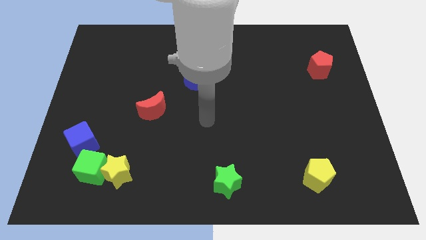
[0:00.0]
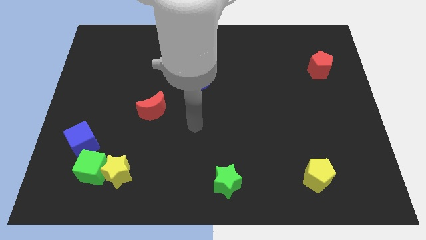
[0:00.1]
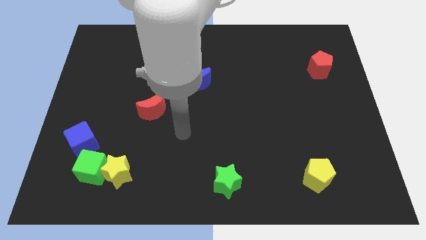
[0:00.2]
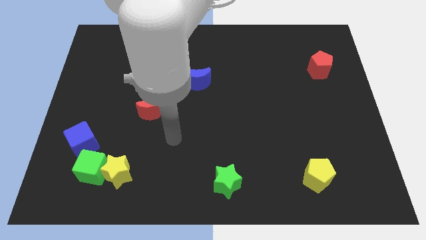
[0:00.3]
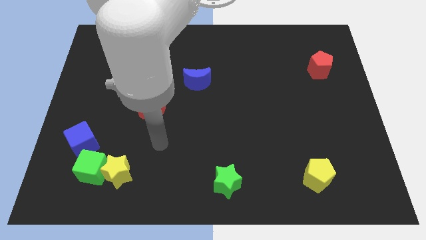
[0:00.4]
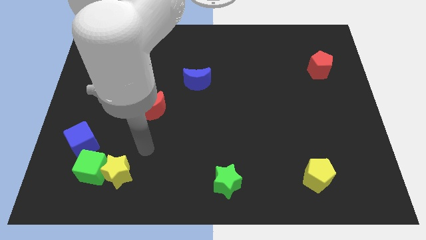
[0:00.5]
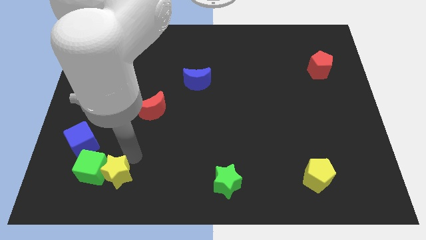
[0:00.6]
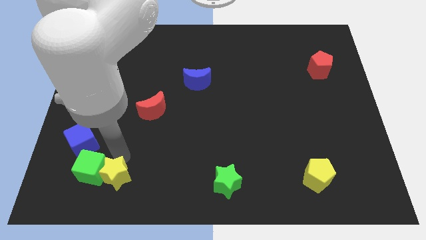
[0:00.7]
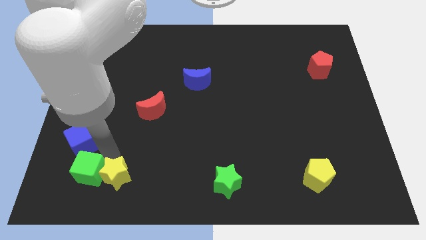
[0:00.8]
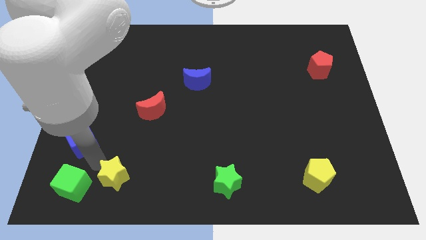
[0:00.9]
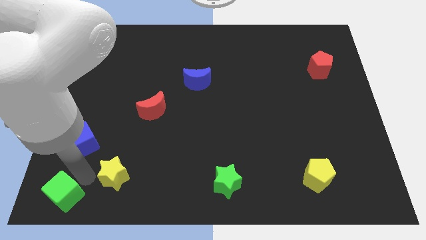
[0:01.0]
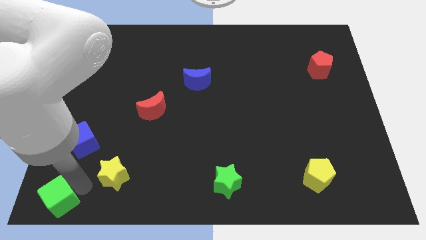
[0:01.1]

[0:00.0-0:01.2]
pull the yellow star apart from the green cube

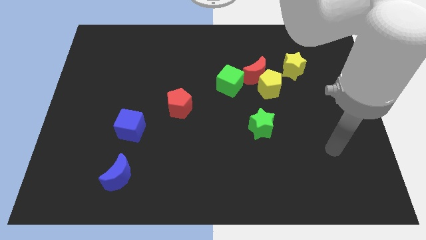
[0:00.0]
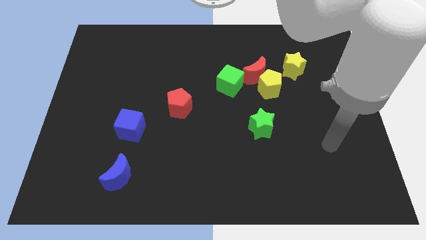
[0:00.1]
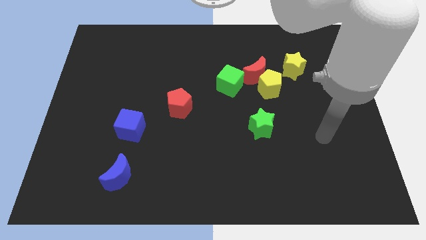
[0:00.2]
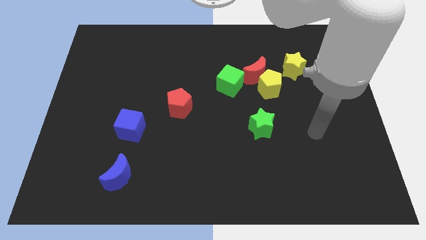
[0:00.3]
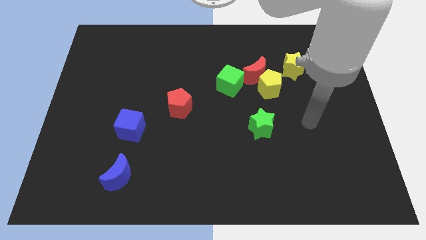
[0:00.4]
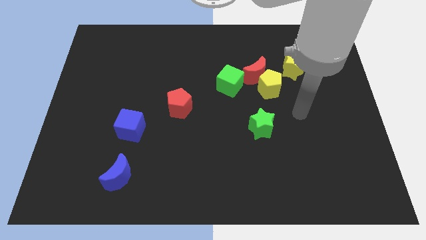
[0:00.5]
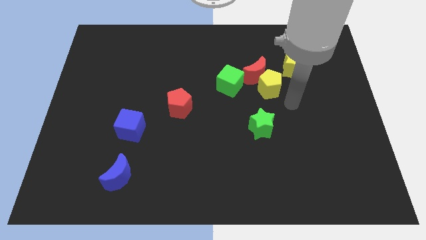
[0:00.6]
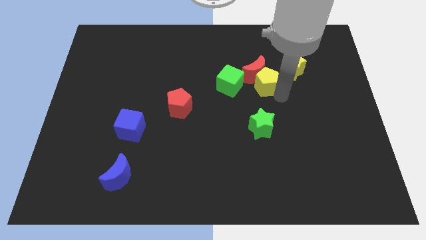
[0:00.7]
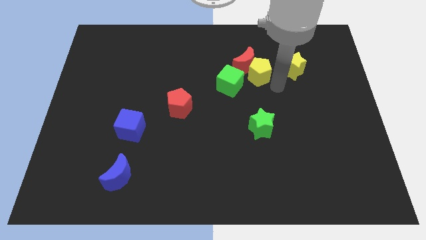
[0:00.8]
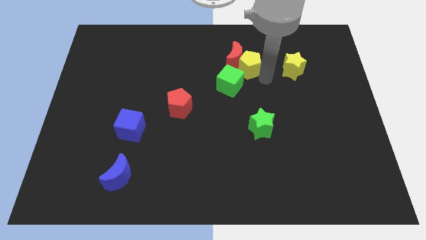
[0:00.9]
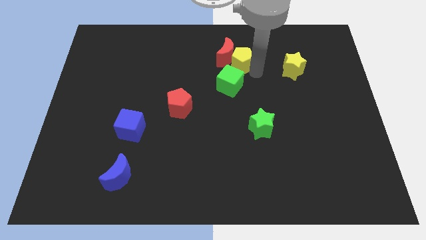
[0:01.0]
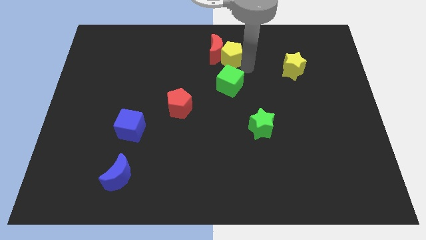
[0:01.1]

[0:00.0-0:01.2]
separate the red moon from the yellow pentagon, green cube, and yellow star

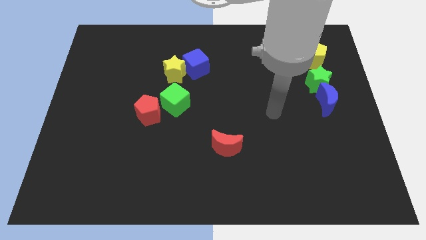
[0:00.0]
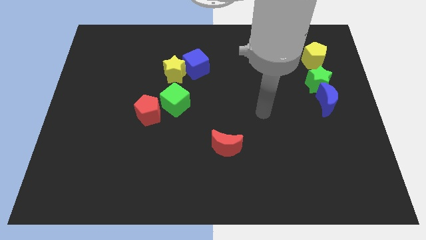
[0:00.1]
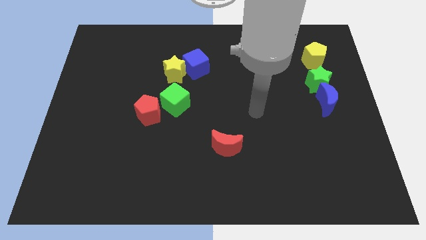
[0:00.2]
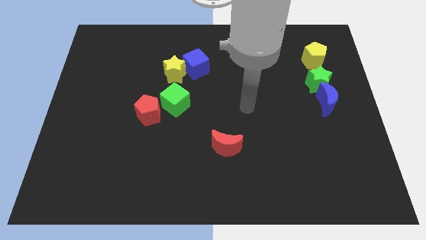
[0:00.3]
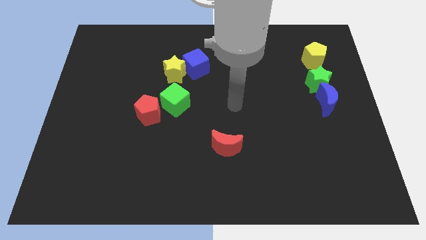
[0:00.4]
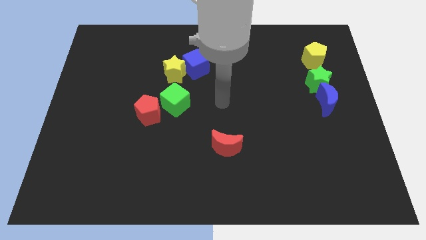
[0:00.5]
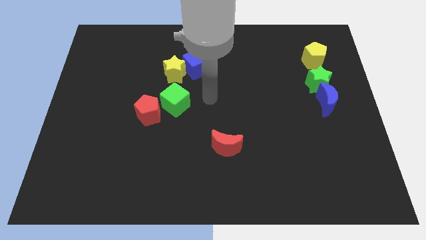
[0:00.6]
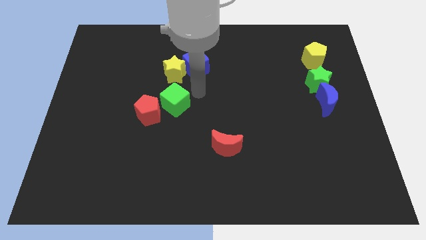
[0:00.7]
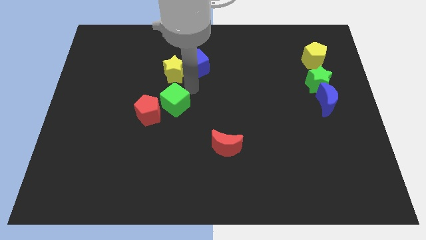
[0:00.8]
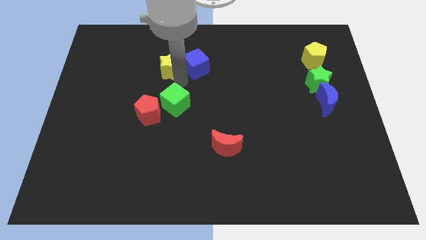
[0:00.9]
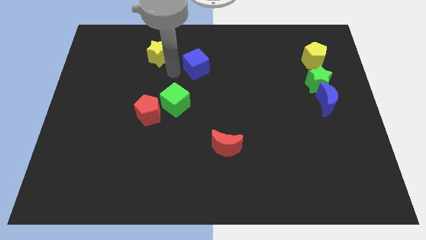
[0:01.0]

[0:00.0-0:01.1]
move the blue cube away from the yellow star

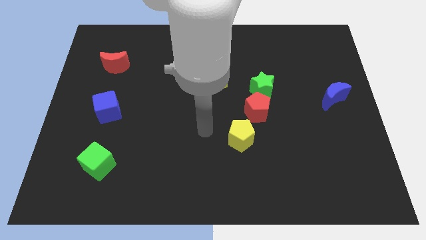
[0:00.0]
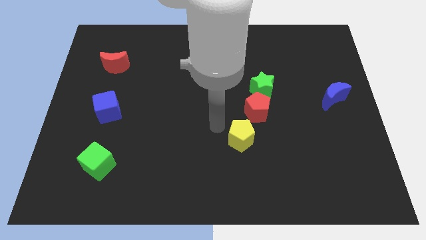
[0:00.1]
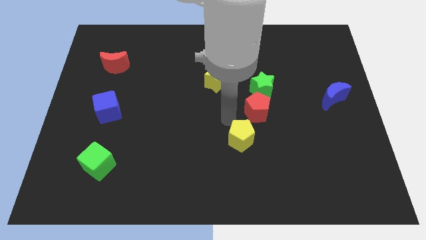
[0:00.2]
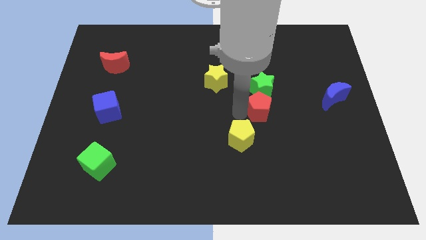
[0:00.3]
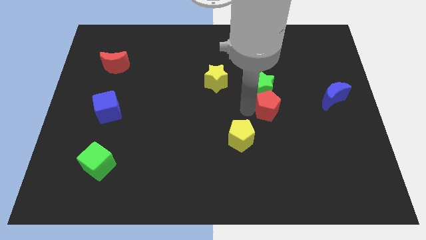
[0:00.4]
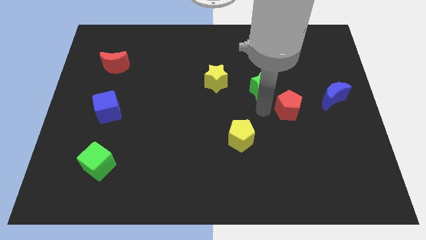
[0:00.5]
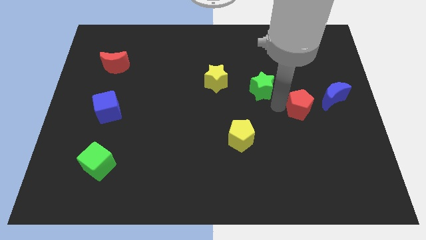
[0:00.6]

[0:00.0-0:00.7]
pull the green star apart from the red pentagon

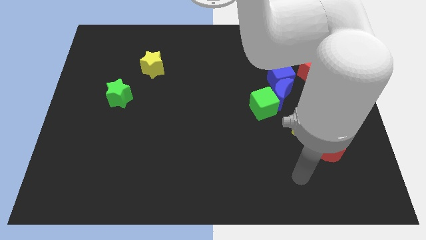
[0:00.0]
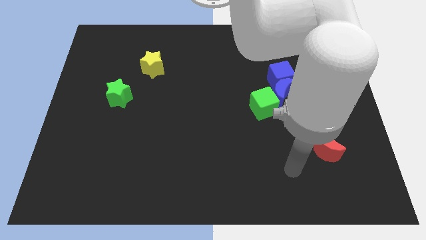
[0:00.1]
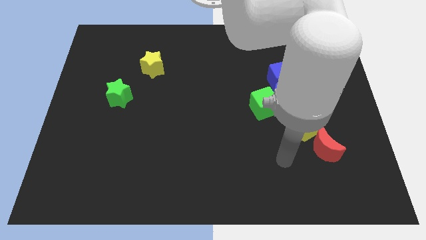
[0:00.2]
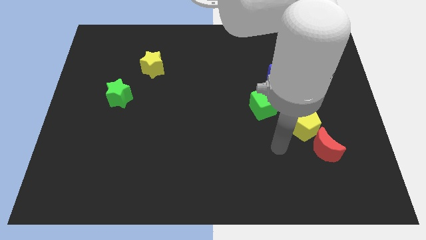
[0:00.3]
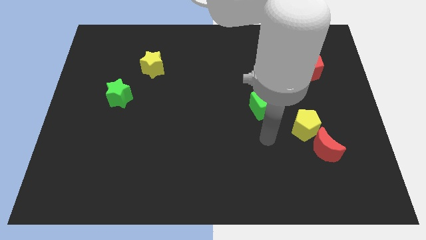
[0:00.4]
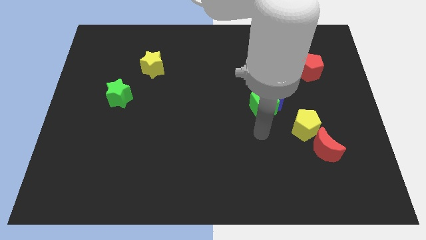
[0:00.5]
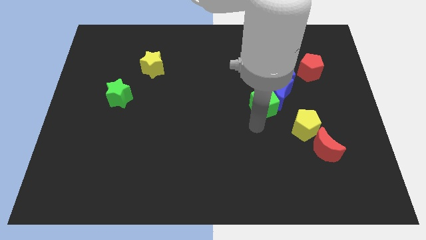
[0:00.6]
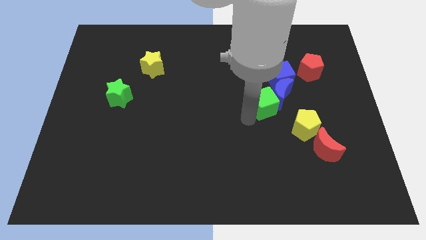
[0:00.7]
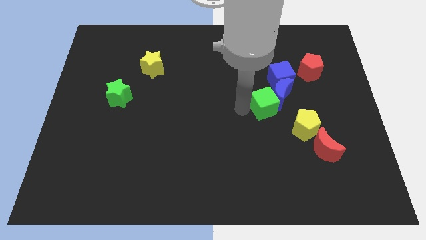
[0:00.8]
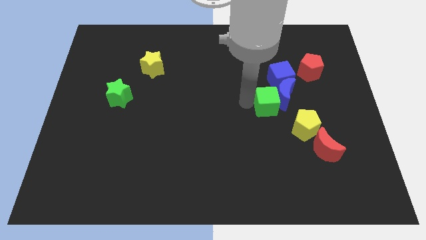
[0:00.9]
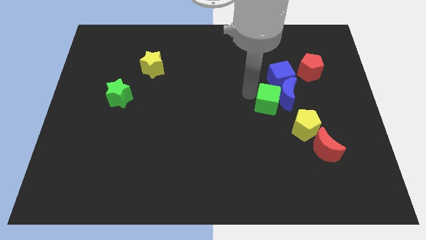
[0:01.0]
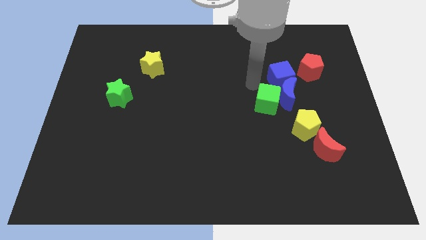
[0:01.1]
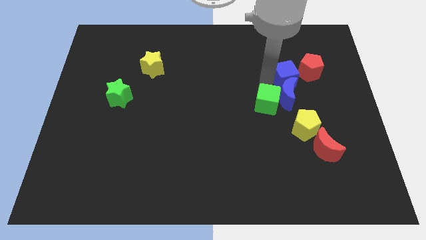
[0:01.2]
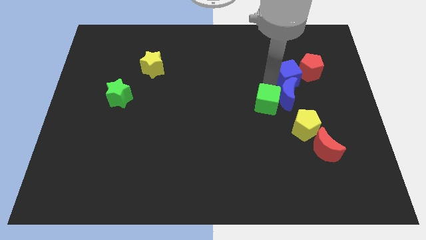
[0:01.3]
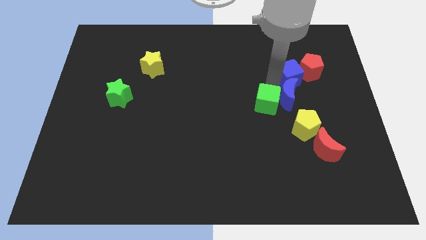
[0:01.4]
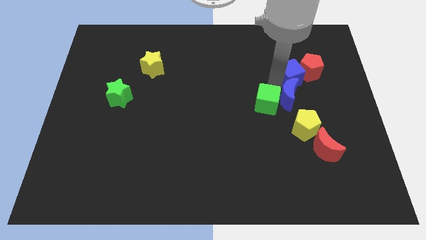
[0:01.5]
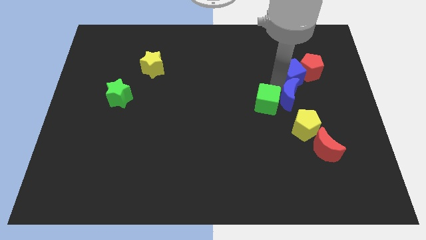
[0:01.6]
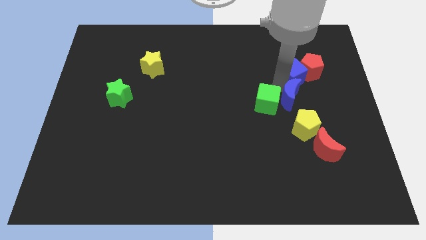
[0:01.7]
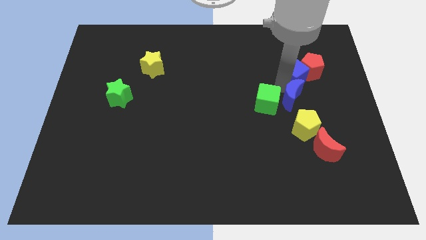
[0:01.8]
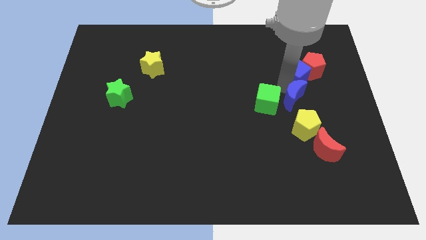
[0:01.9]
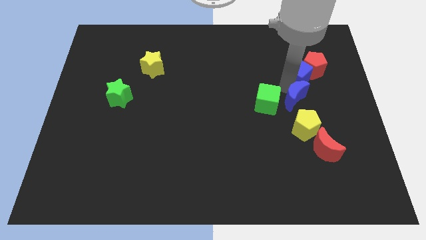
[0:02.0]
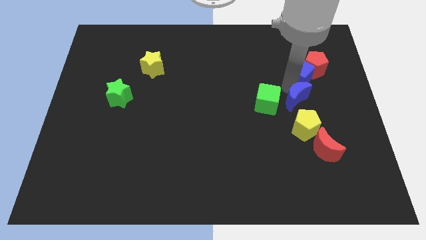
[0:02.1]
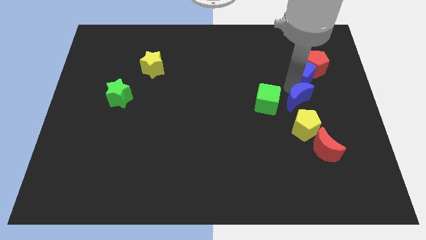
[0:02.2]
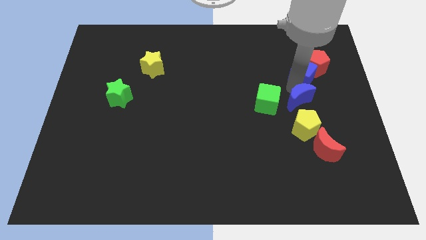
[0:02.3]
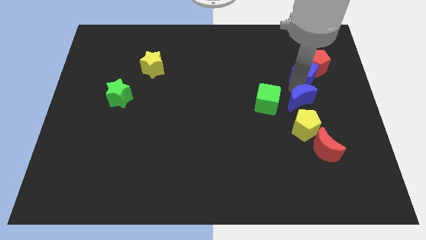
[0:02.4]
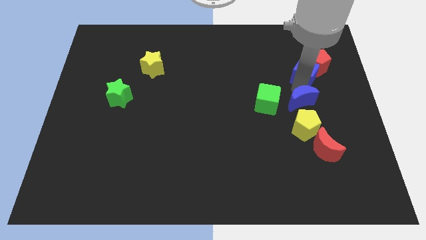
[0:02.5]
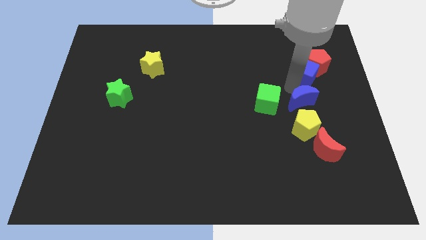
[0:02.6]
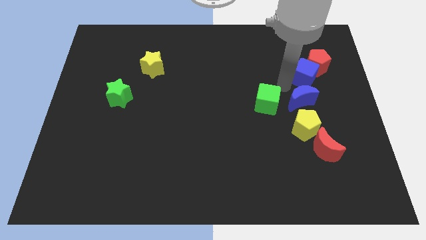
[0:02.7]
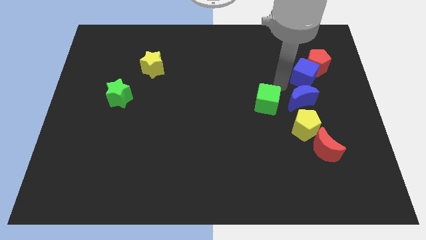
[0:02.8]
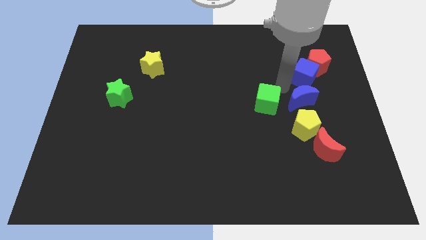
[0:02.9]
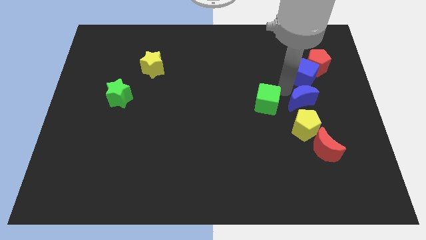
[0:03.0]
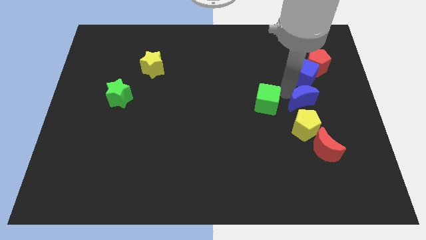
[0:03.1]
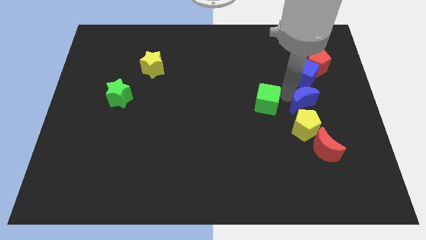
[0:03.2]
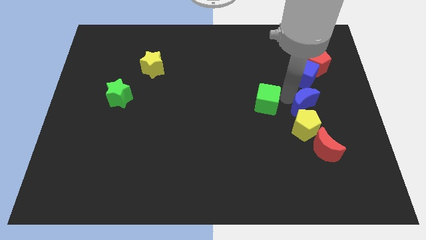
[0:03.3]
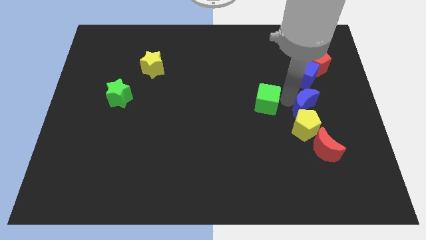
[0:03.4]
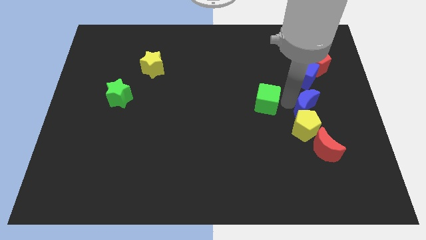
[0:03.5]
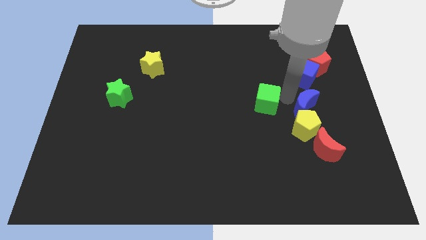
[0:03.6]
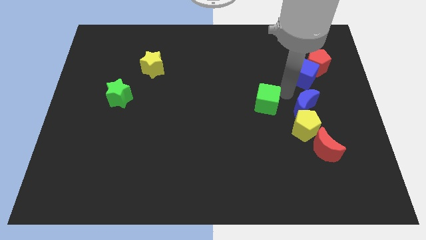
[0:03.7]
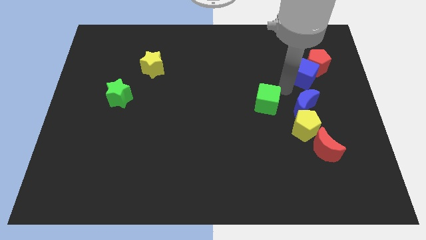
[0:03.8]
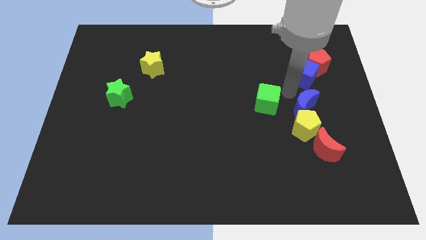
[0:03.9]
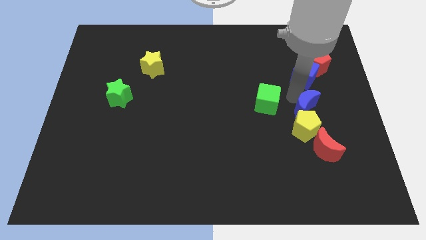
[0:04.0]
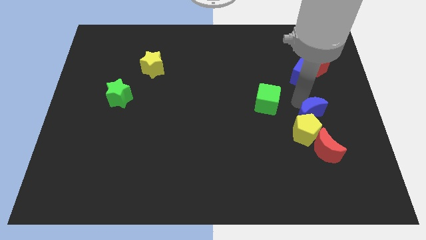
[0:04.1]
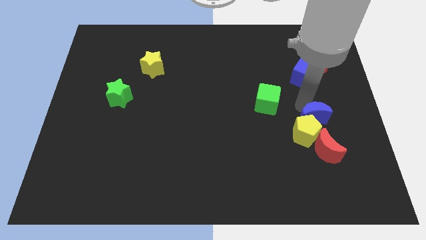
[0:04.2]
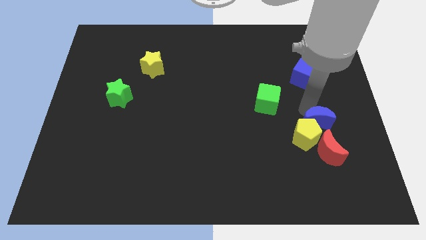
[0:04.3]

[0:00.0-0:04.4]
move the blue moon away from the green cube and blue cube

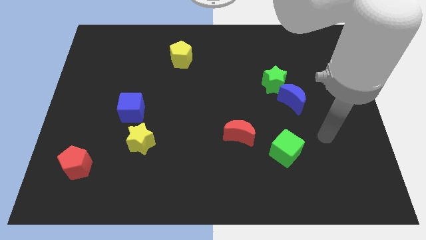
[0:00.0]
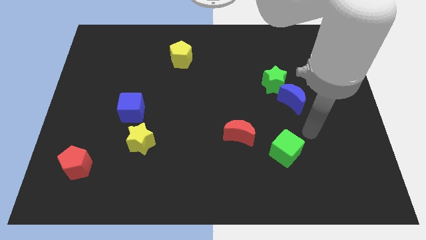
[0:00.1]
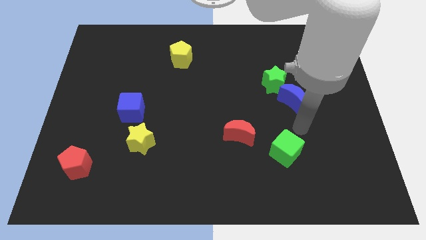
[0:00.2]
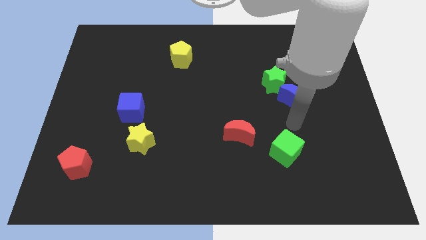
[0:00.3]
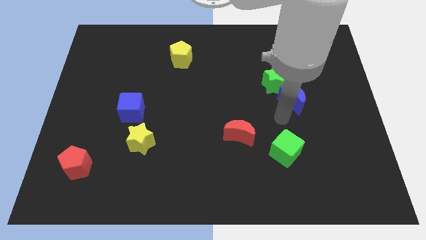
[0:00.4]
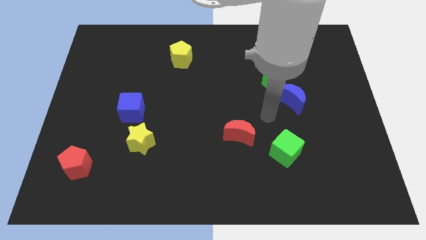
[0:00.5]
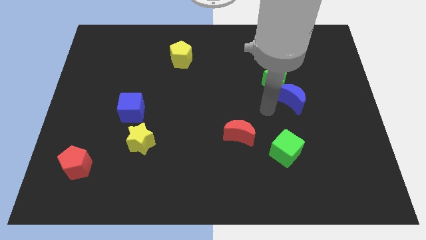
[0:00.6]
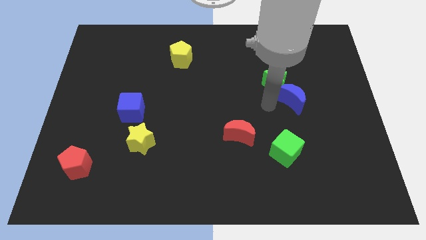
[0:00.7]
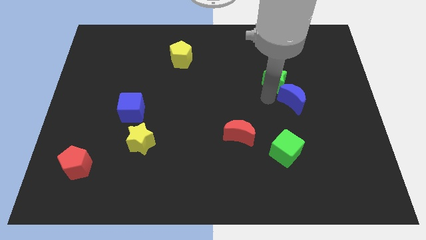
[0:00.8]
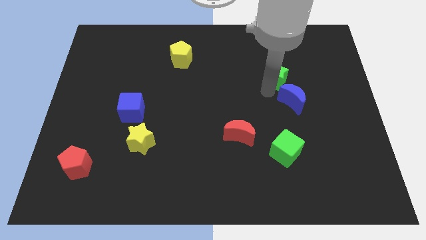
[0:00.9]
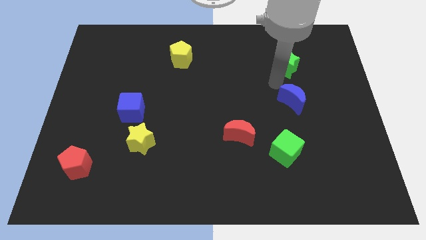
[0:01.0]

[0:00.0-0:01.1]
separate the blue moon from the green star
